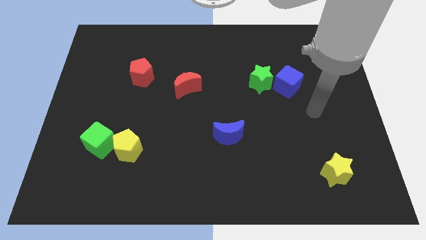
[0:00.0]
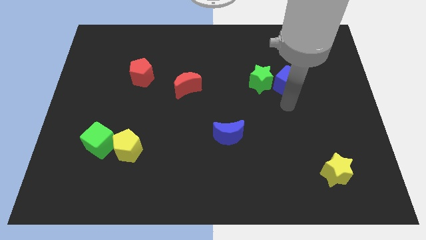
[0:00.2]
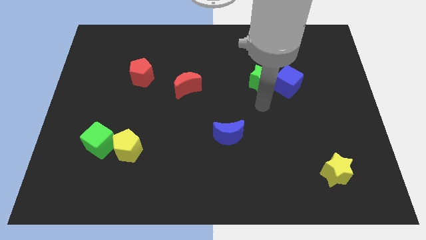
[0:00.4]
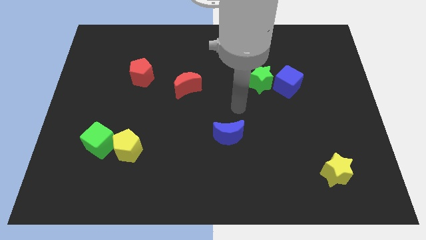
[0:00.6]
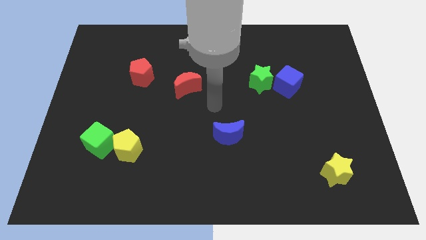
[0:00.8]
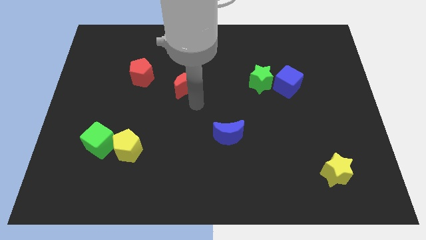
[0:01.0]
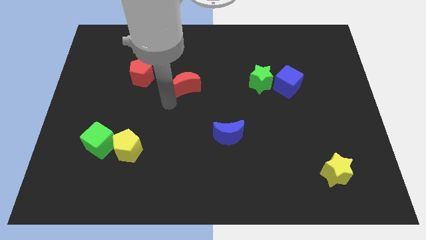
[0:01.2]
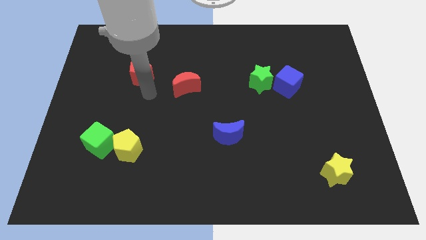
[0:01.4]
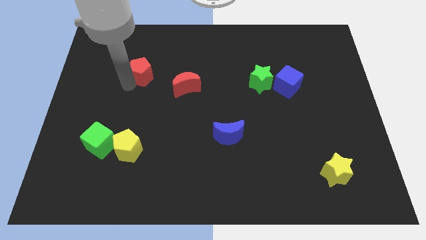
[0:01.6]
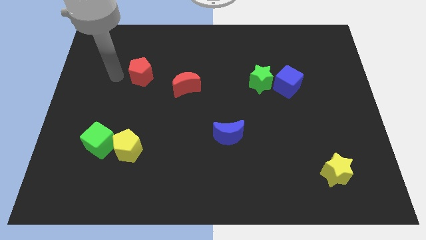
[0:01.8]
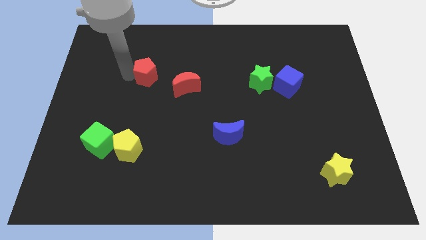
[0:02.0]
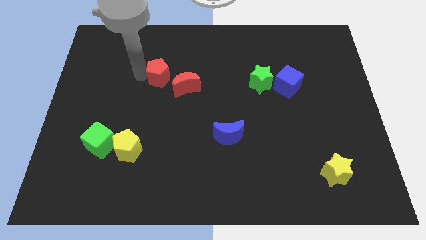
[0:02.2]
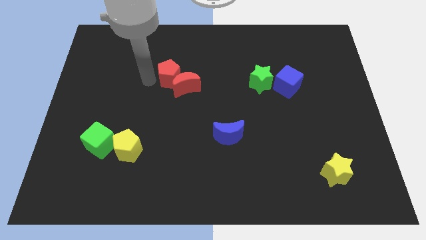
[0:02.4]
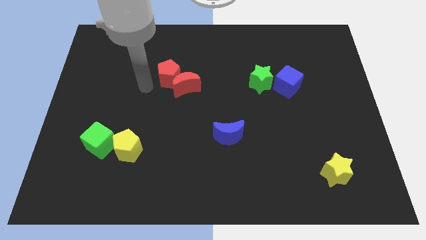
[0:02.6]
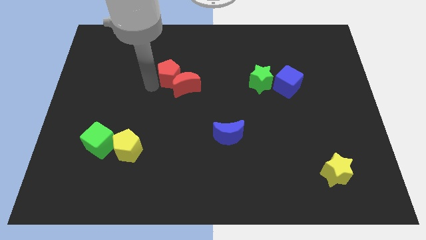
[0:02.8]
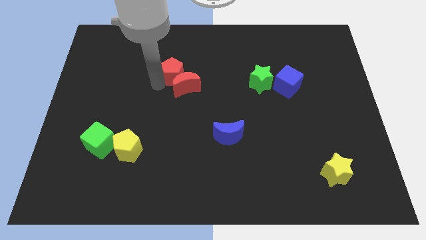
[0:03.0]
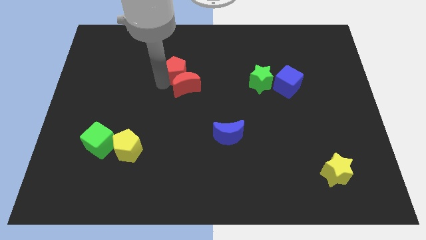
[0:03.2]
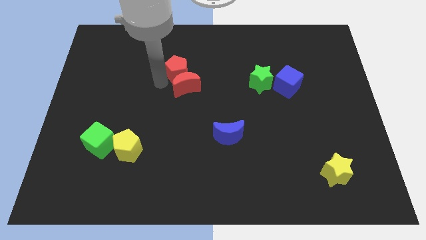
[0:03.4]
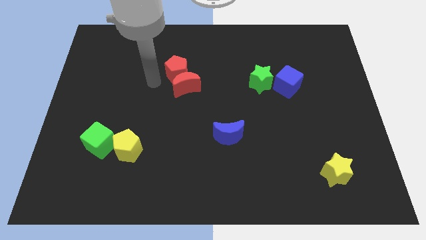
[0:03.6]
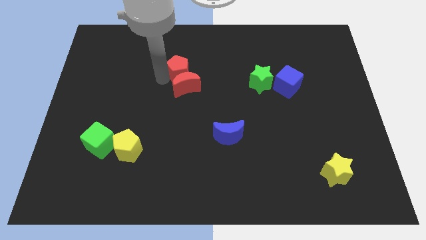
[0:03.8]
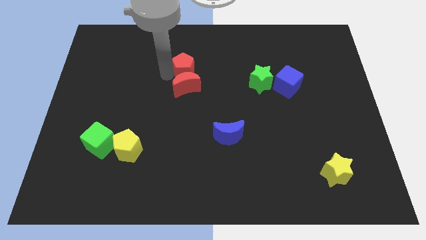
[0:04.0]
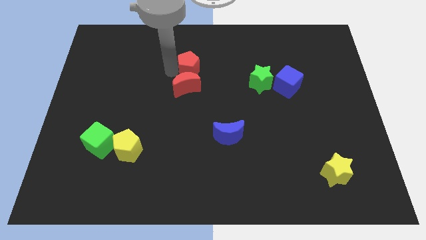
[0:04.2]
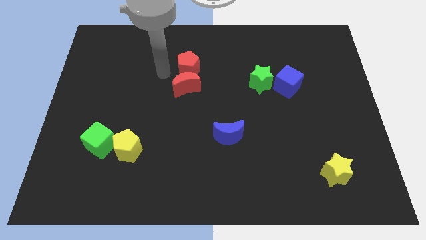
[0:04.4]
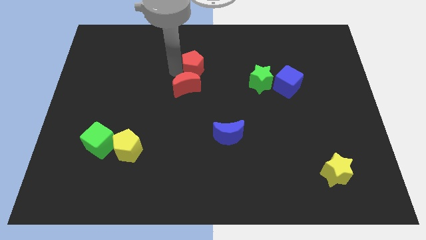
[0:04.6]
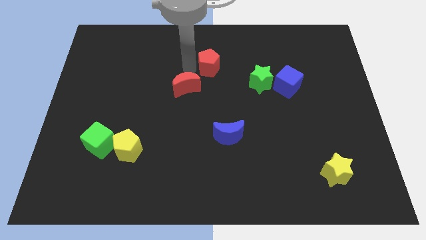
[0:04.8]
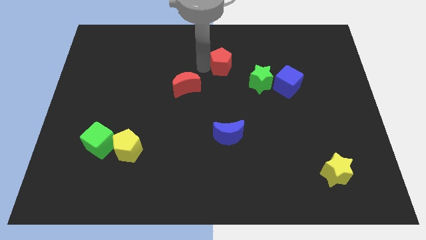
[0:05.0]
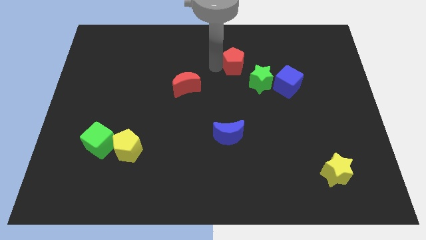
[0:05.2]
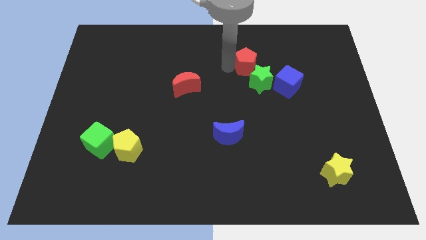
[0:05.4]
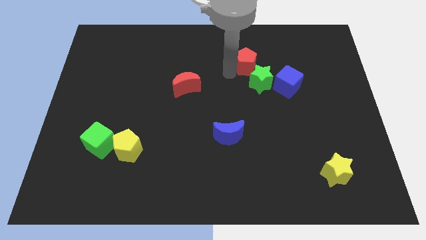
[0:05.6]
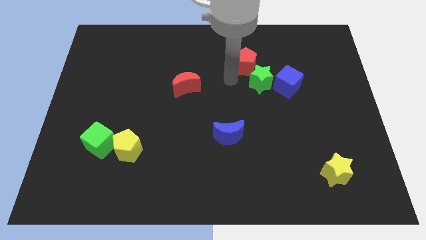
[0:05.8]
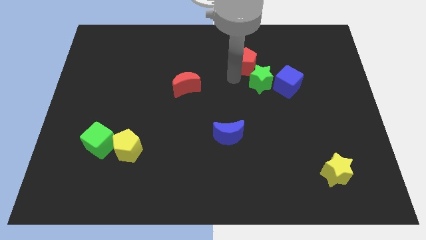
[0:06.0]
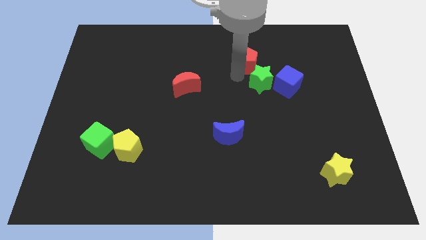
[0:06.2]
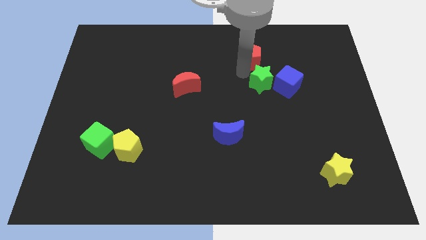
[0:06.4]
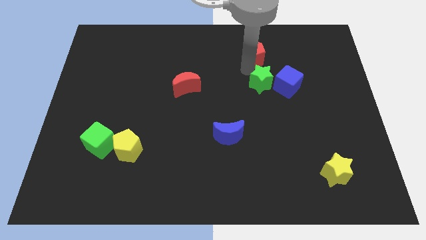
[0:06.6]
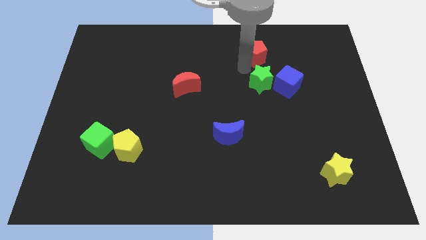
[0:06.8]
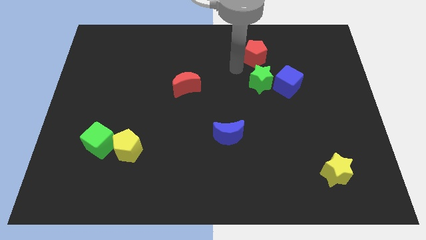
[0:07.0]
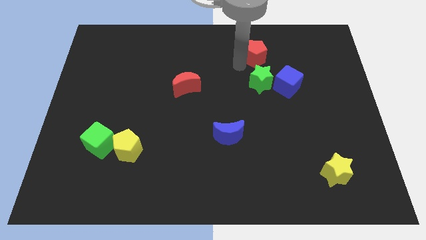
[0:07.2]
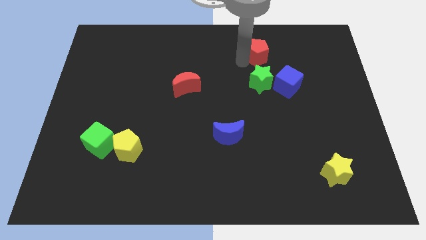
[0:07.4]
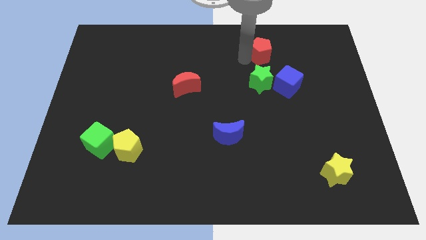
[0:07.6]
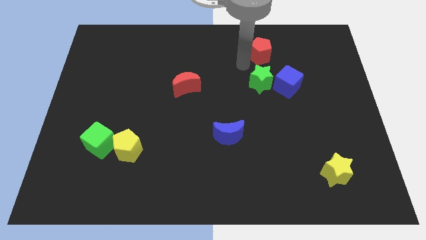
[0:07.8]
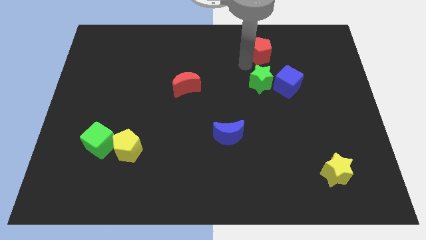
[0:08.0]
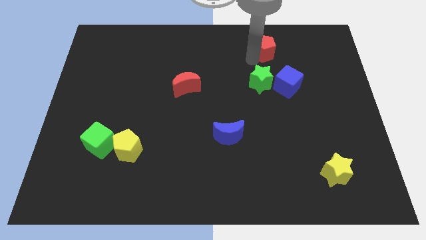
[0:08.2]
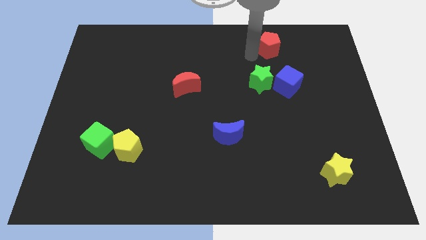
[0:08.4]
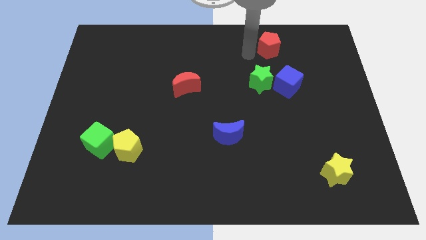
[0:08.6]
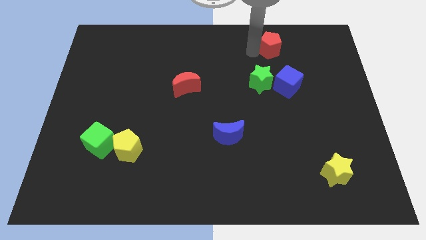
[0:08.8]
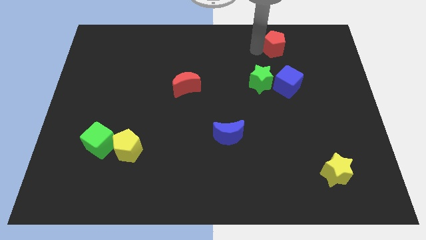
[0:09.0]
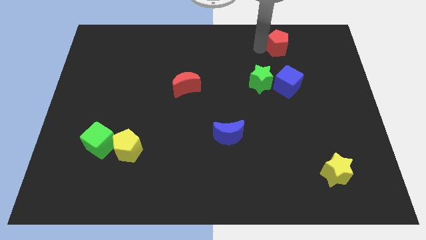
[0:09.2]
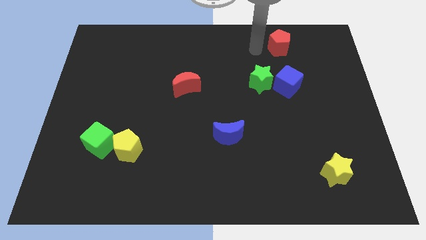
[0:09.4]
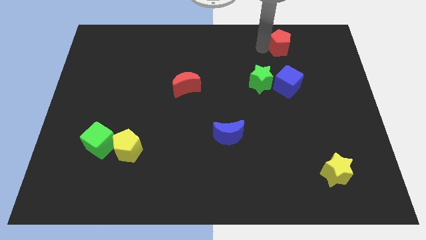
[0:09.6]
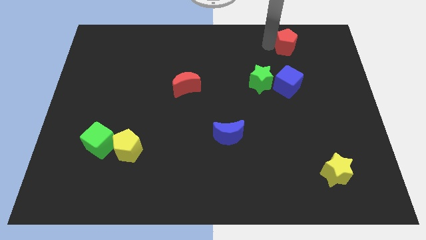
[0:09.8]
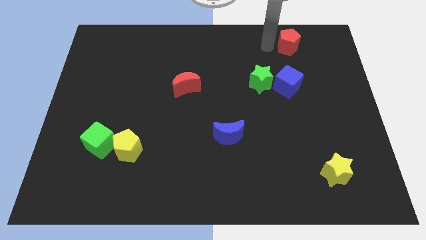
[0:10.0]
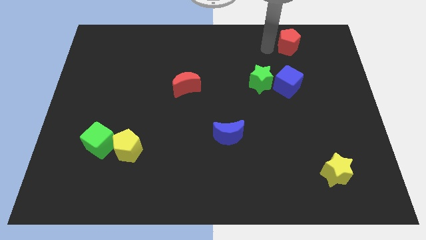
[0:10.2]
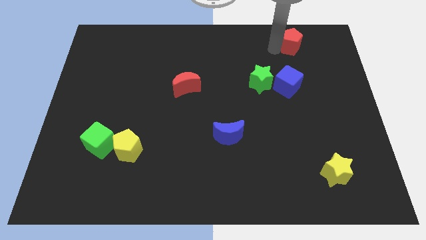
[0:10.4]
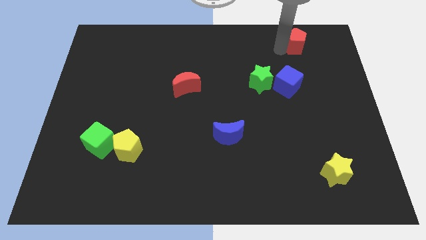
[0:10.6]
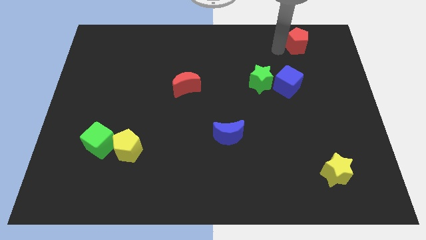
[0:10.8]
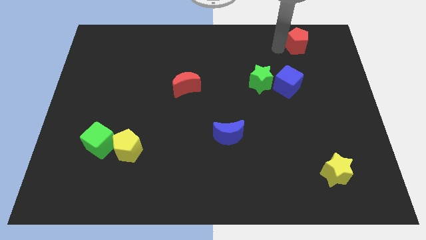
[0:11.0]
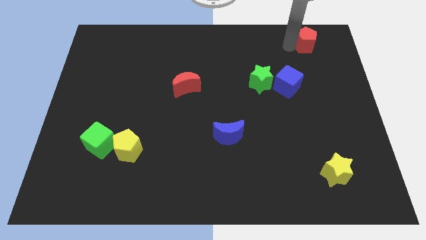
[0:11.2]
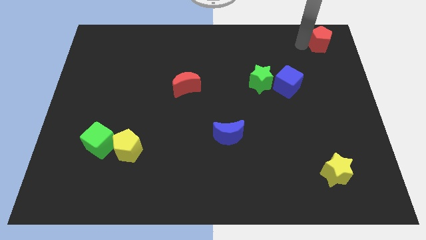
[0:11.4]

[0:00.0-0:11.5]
move the red pentagon to the top right corner

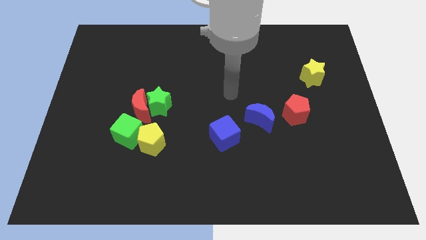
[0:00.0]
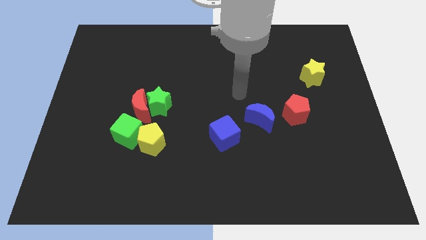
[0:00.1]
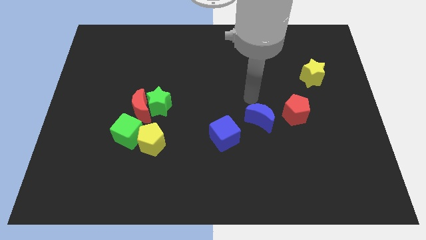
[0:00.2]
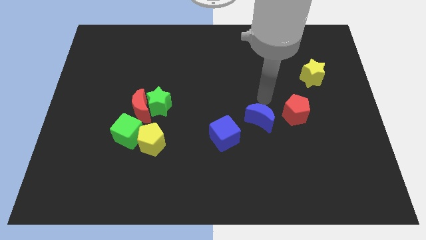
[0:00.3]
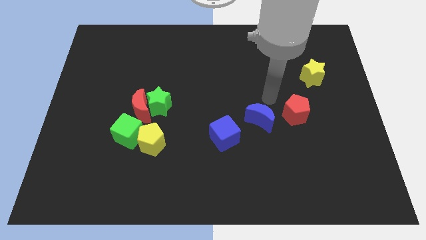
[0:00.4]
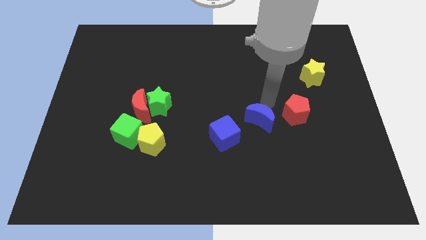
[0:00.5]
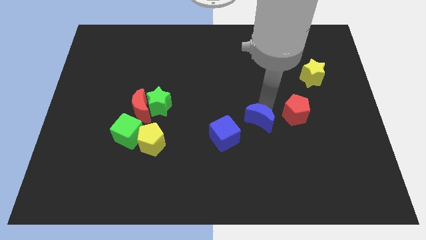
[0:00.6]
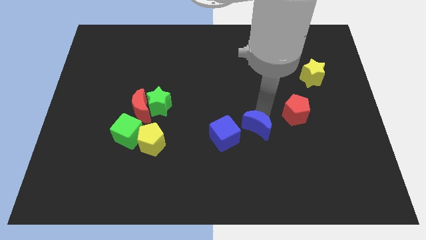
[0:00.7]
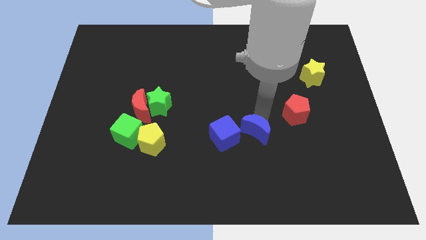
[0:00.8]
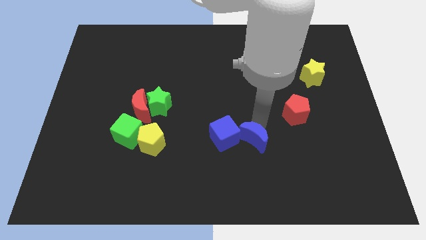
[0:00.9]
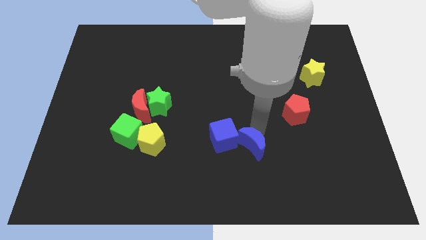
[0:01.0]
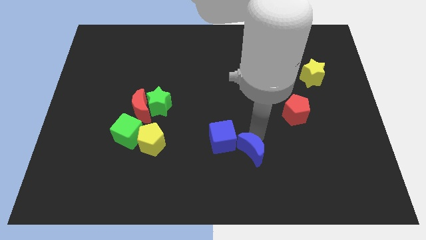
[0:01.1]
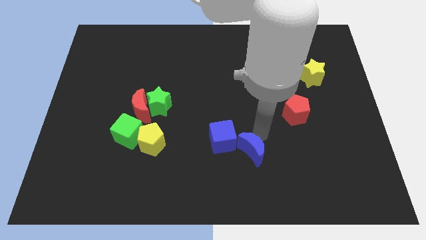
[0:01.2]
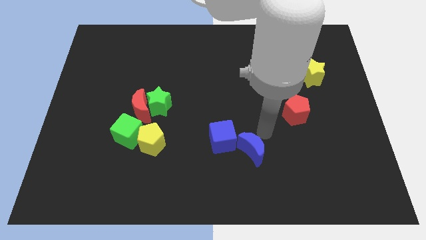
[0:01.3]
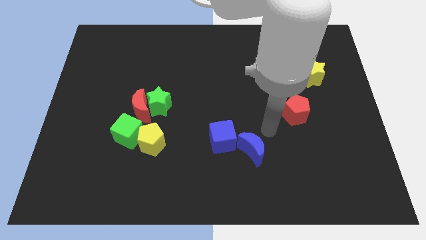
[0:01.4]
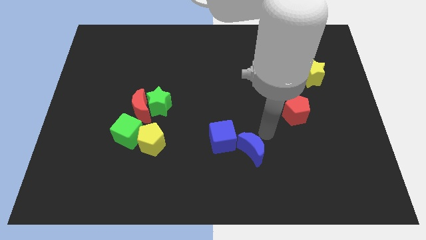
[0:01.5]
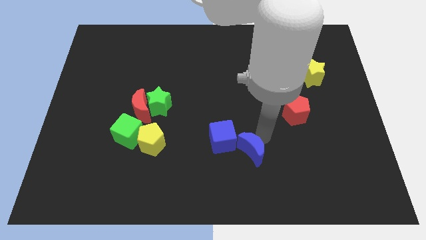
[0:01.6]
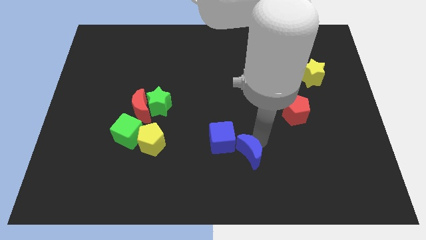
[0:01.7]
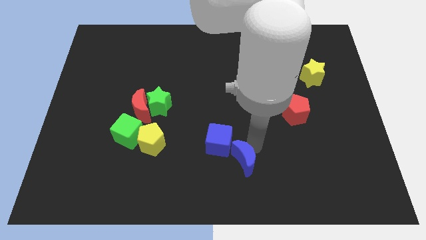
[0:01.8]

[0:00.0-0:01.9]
put the blue moon to the bottom
